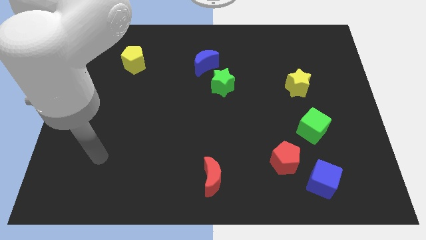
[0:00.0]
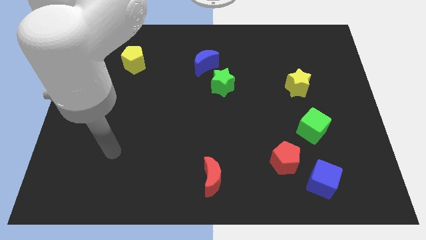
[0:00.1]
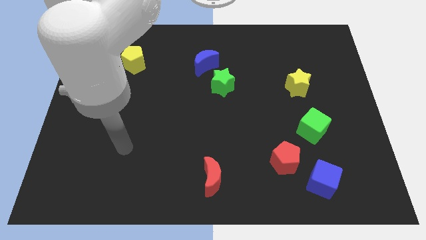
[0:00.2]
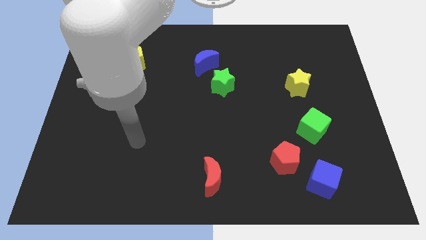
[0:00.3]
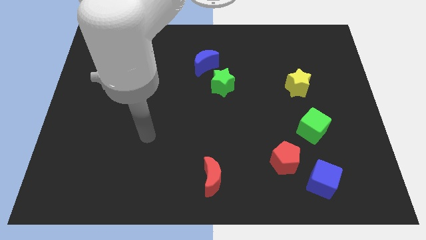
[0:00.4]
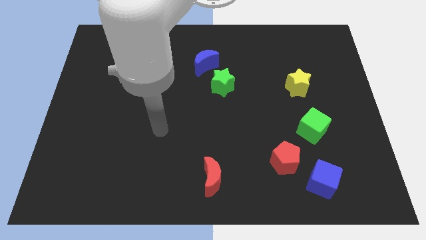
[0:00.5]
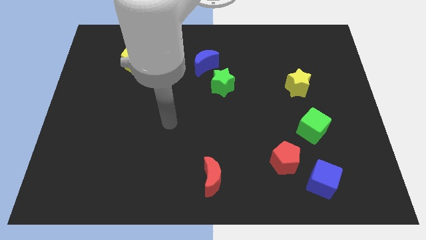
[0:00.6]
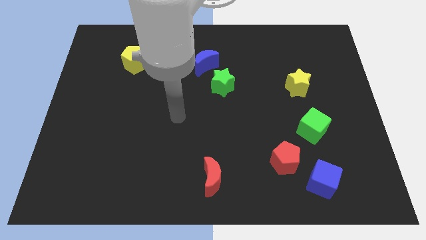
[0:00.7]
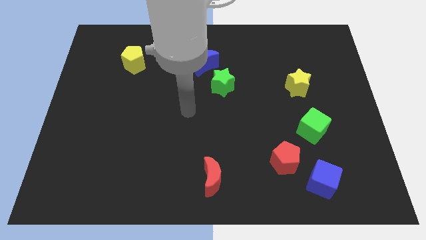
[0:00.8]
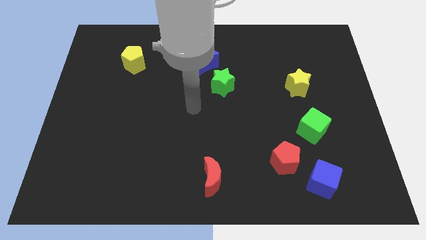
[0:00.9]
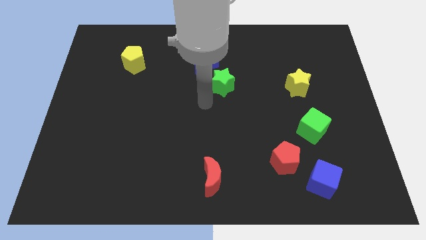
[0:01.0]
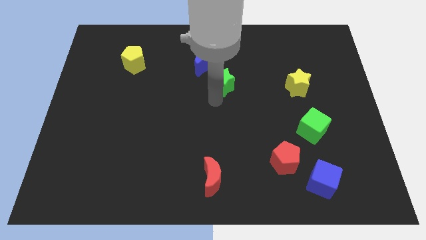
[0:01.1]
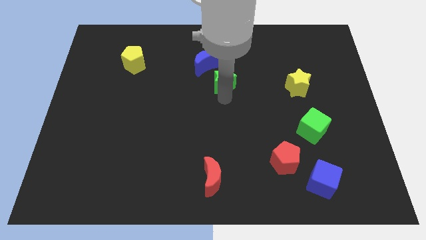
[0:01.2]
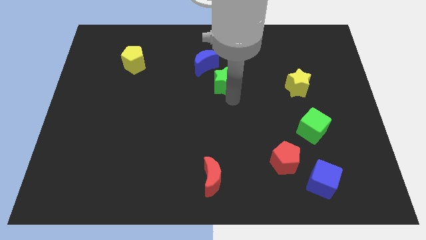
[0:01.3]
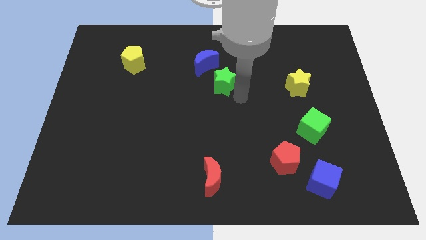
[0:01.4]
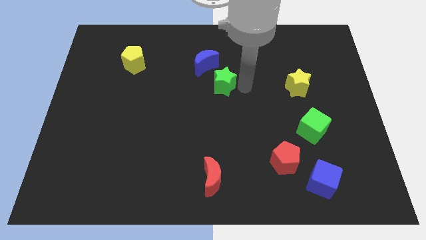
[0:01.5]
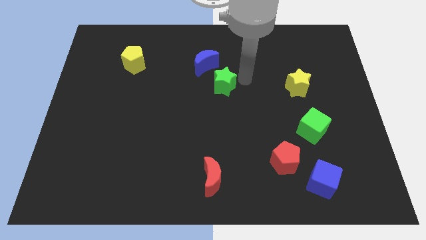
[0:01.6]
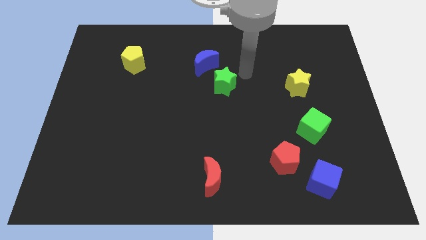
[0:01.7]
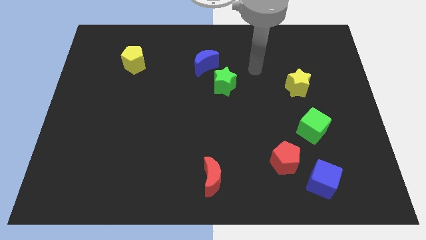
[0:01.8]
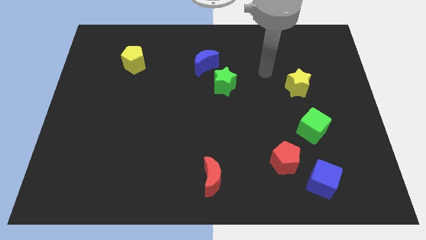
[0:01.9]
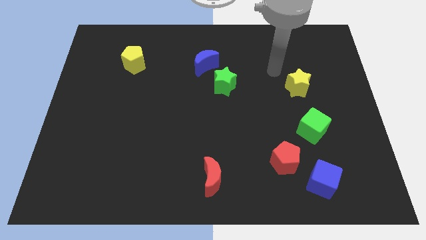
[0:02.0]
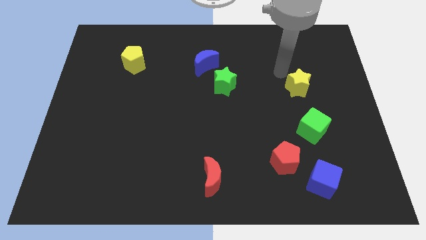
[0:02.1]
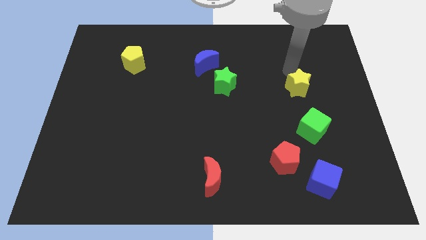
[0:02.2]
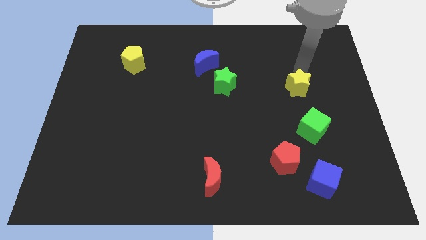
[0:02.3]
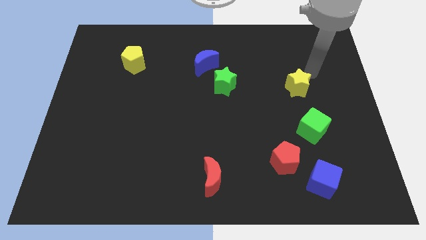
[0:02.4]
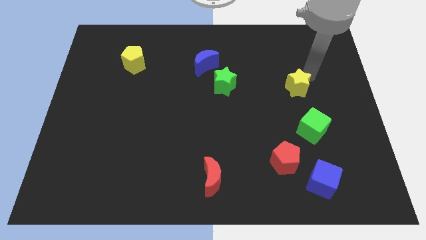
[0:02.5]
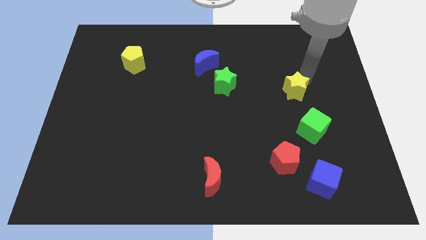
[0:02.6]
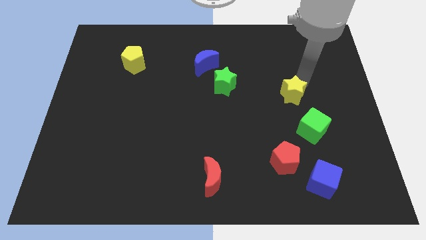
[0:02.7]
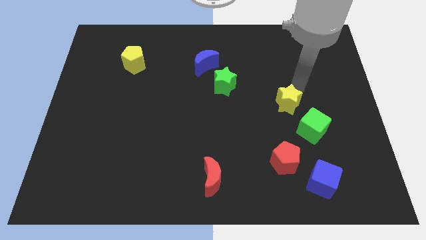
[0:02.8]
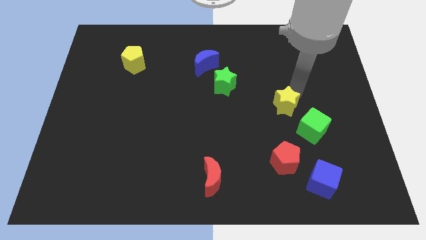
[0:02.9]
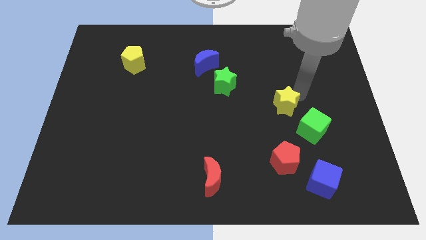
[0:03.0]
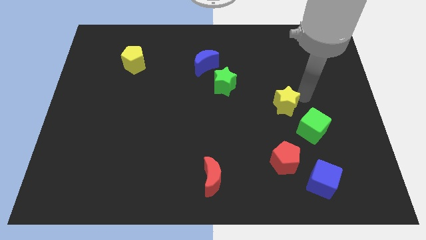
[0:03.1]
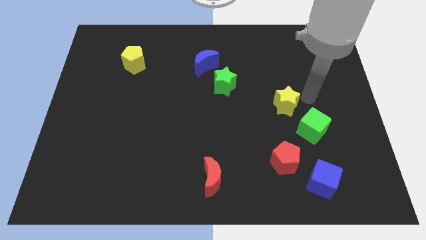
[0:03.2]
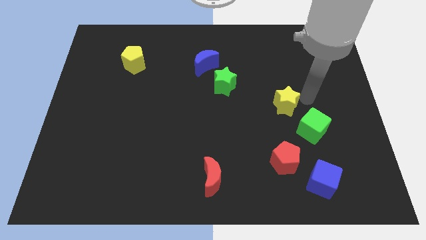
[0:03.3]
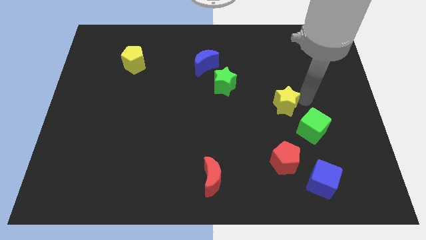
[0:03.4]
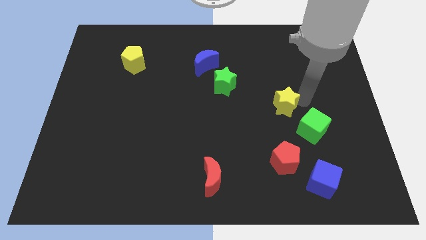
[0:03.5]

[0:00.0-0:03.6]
slide the yellow star somewhat downwards and to the left

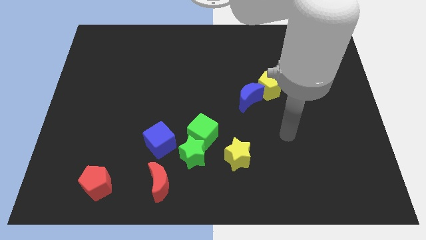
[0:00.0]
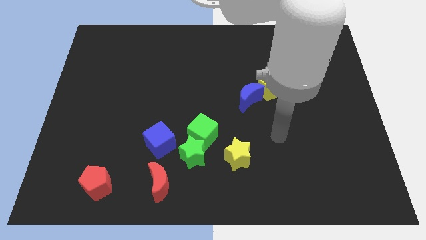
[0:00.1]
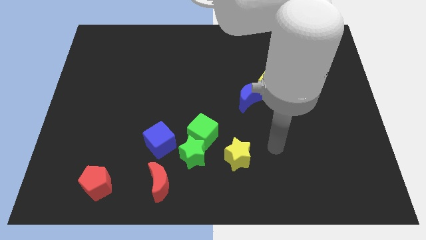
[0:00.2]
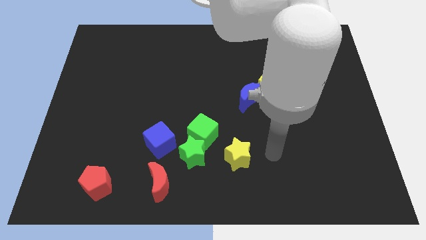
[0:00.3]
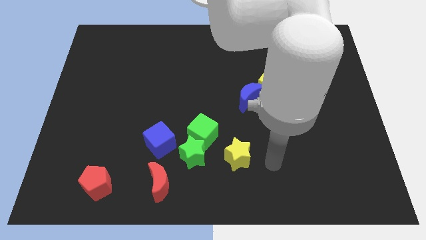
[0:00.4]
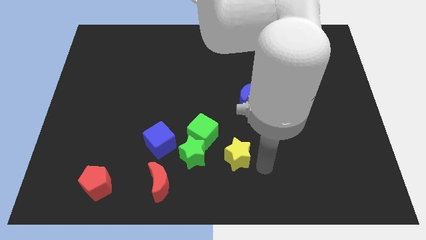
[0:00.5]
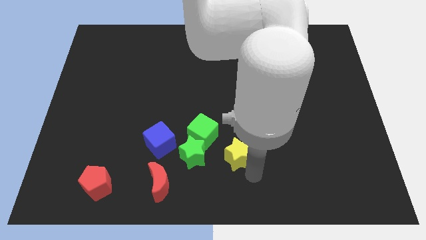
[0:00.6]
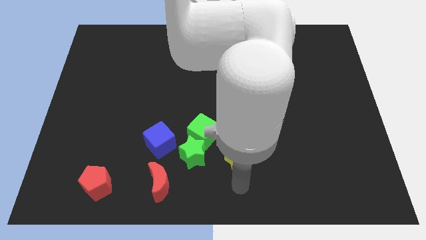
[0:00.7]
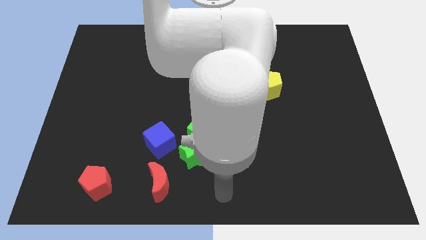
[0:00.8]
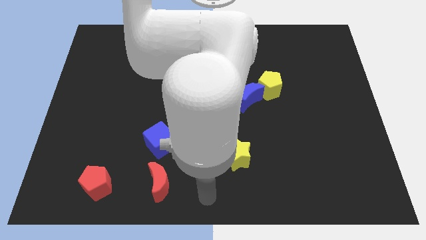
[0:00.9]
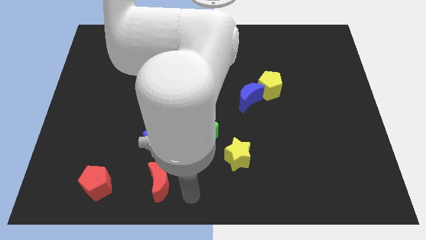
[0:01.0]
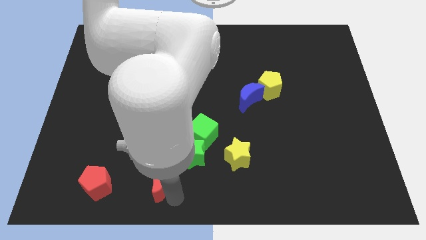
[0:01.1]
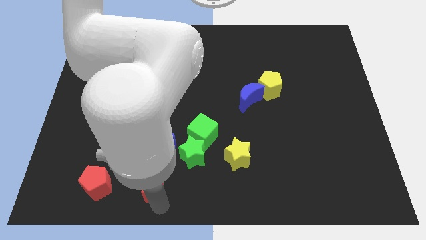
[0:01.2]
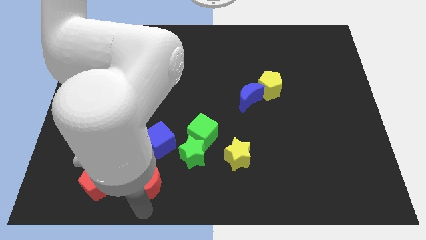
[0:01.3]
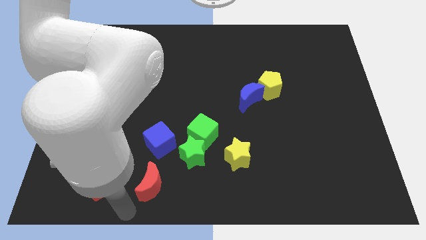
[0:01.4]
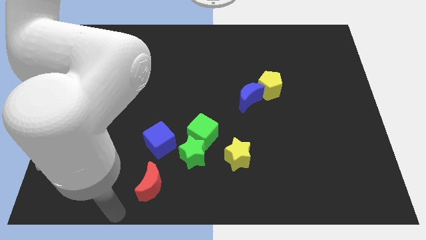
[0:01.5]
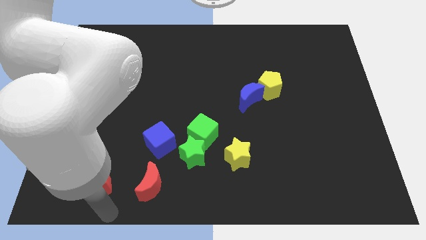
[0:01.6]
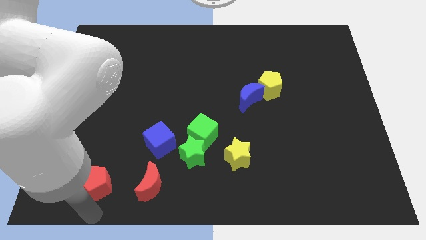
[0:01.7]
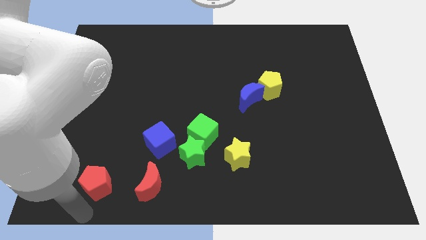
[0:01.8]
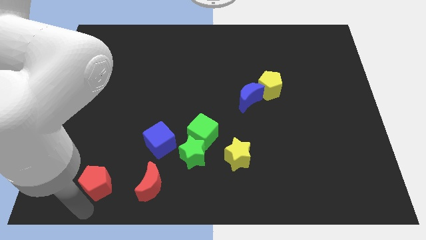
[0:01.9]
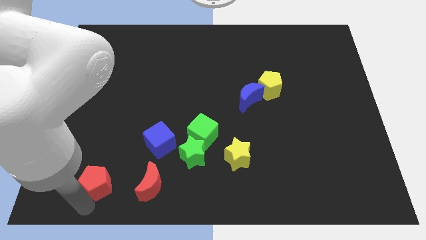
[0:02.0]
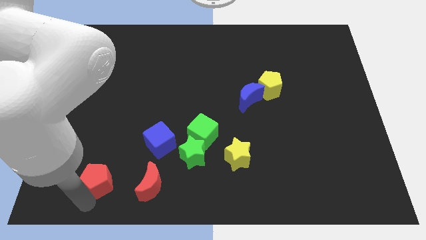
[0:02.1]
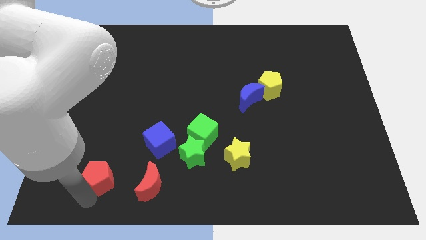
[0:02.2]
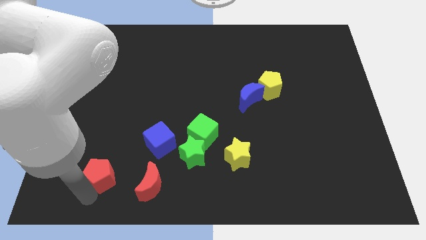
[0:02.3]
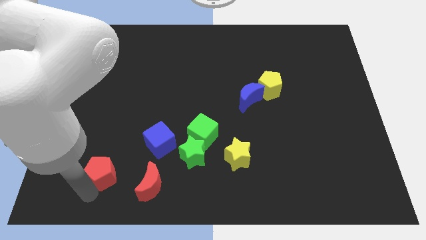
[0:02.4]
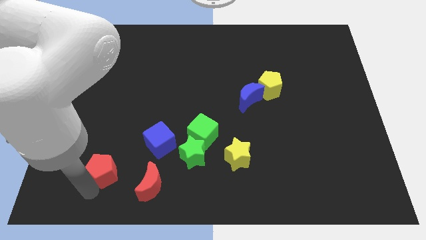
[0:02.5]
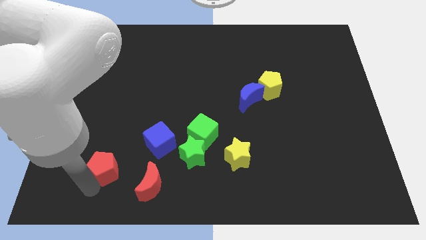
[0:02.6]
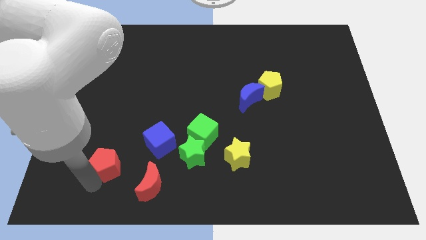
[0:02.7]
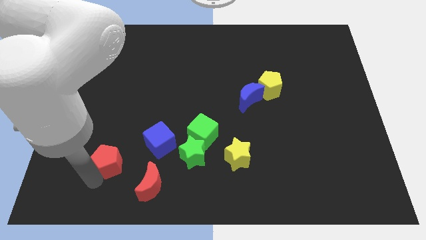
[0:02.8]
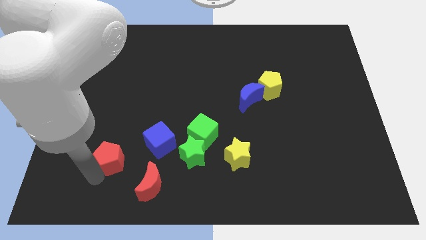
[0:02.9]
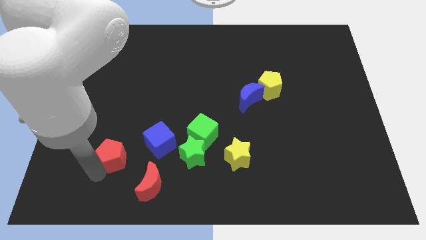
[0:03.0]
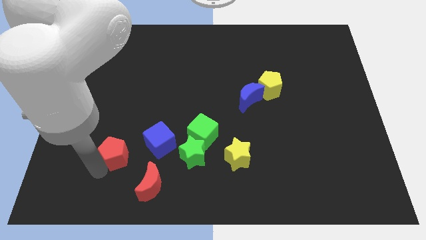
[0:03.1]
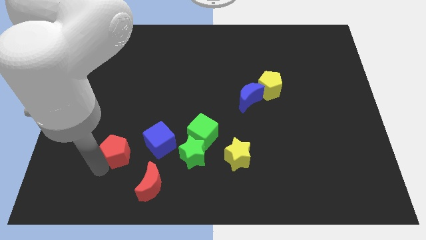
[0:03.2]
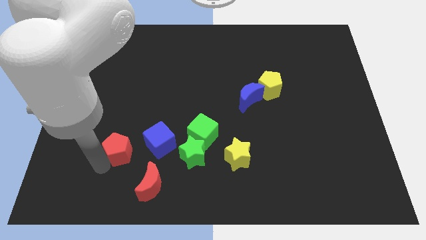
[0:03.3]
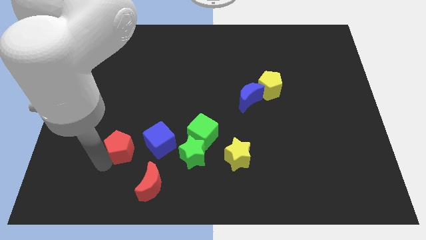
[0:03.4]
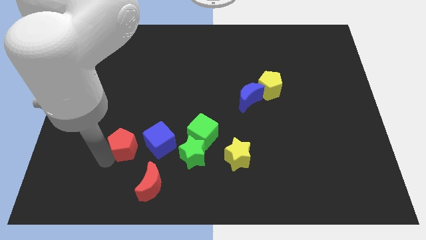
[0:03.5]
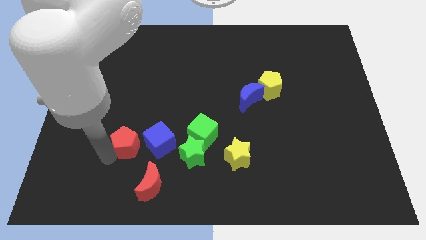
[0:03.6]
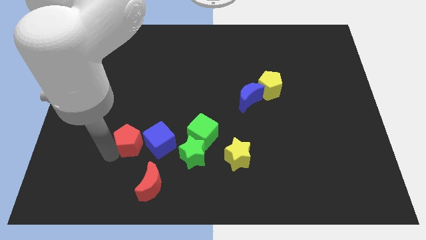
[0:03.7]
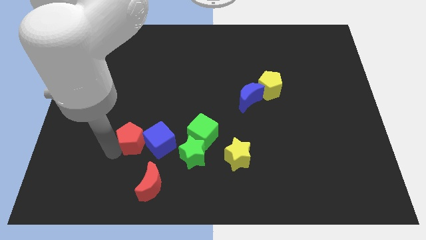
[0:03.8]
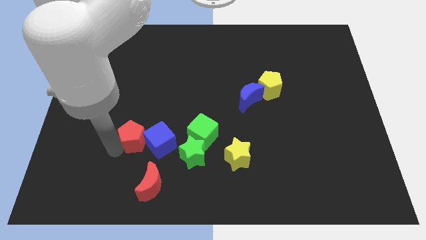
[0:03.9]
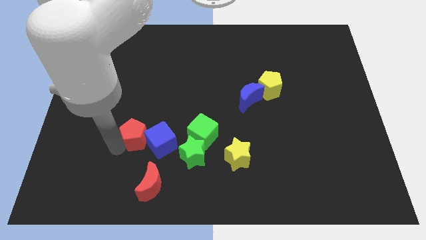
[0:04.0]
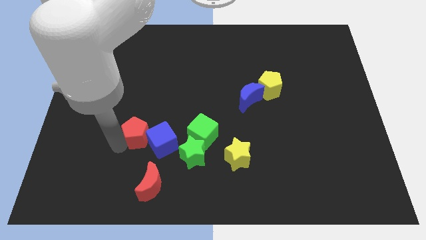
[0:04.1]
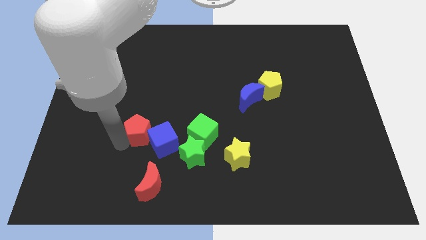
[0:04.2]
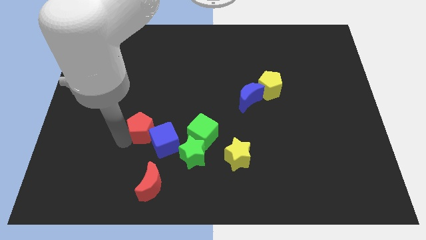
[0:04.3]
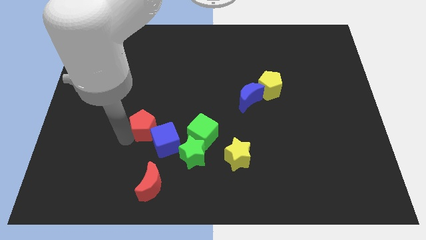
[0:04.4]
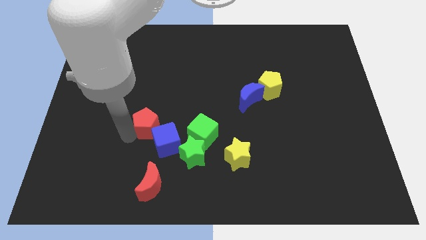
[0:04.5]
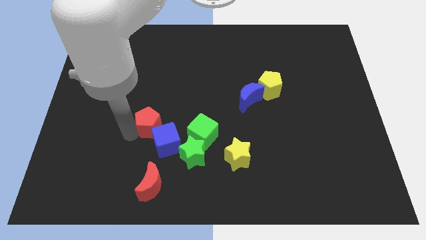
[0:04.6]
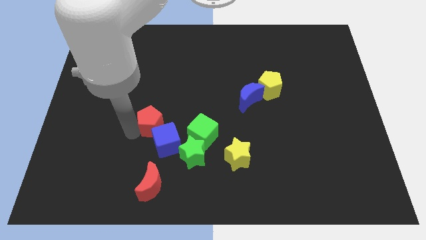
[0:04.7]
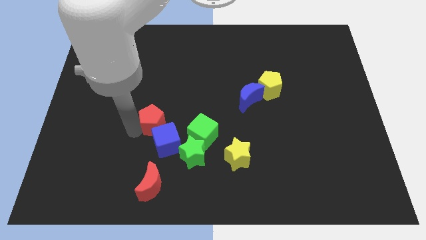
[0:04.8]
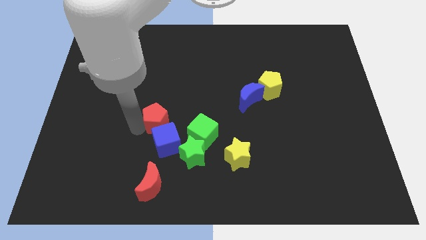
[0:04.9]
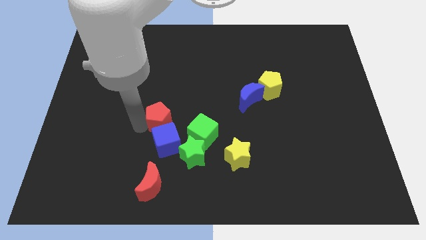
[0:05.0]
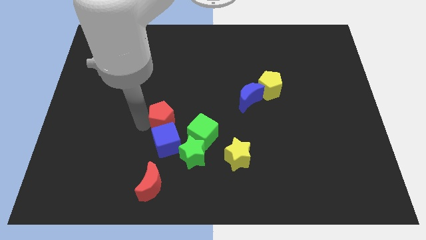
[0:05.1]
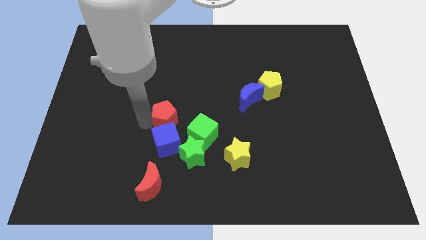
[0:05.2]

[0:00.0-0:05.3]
push the red pentagon up and then to the right
